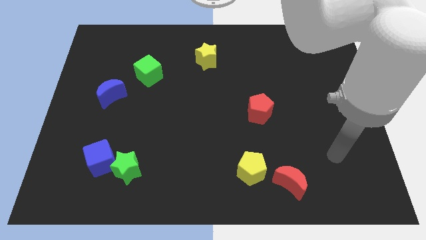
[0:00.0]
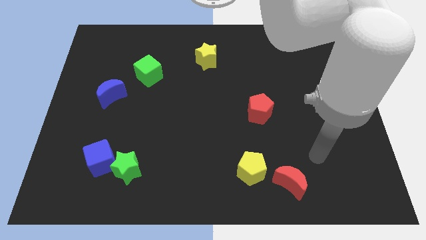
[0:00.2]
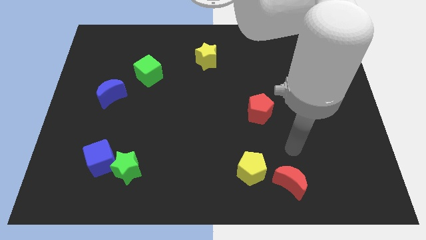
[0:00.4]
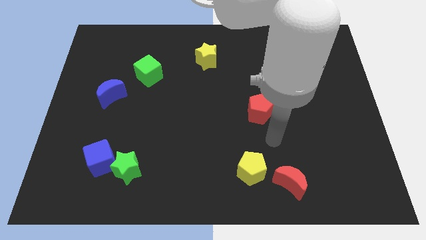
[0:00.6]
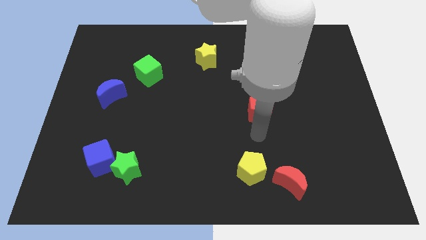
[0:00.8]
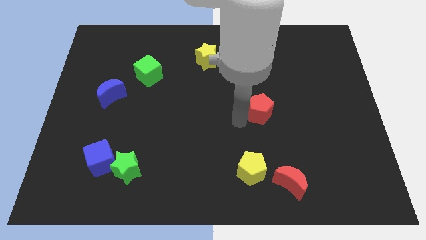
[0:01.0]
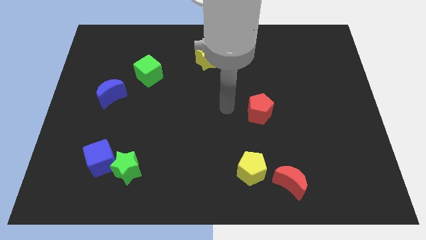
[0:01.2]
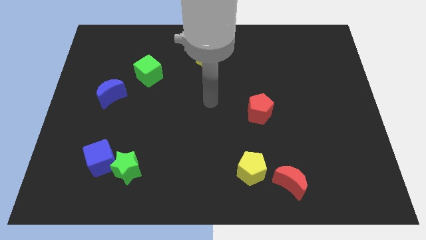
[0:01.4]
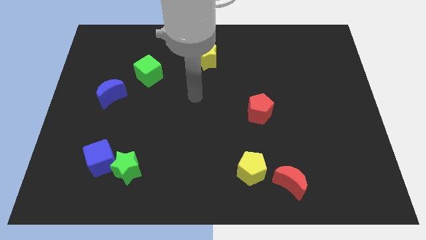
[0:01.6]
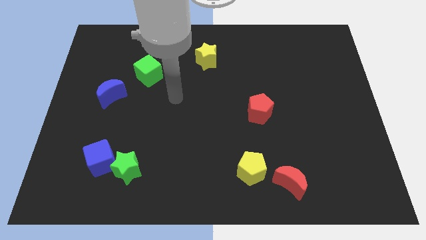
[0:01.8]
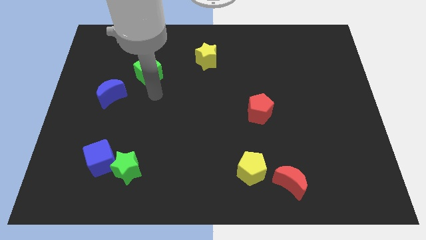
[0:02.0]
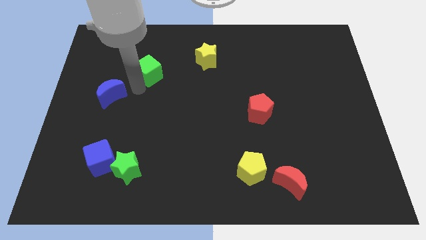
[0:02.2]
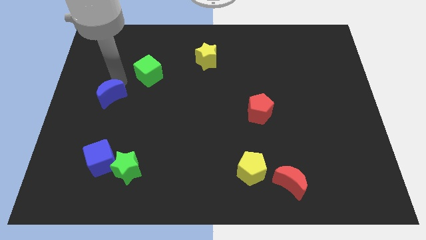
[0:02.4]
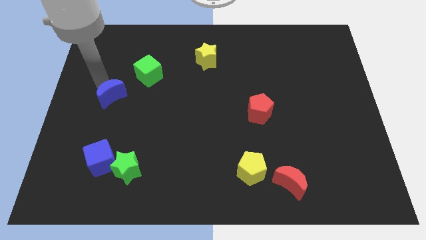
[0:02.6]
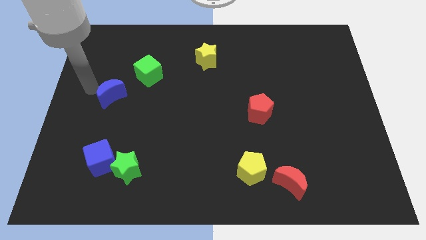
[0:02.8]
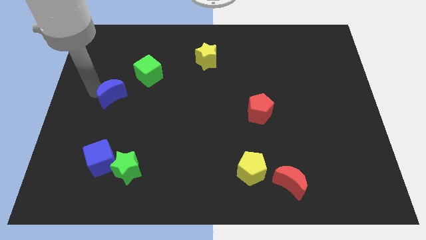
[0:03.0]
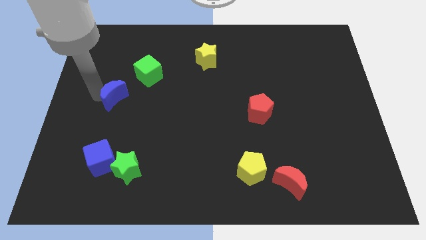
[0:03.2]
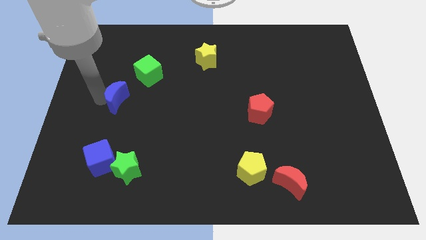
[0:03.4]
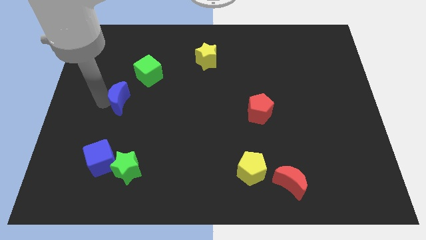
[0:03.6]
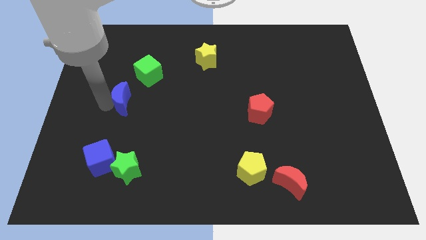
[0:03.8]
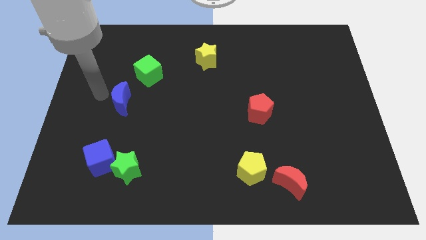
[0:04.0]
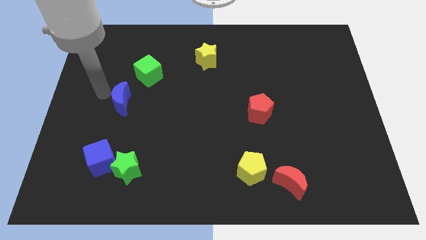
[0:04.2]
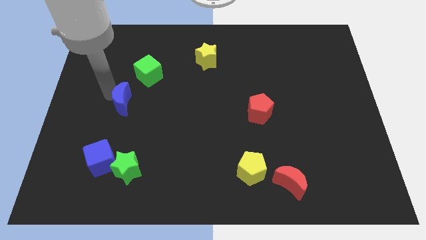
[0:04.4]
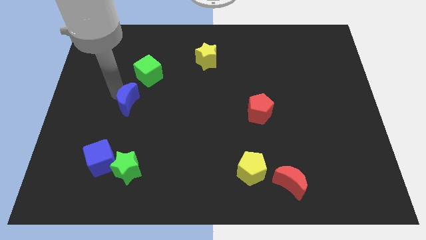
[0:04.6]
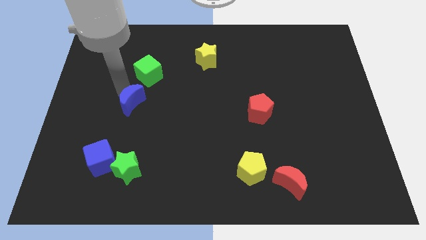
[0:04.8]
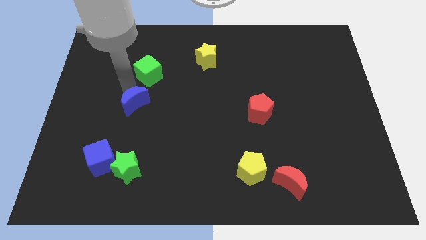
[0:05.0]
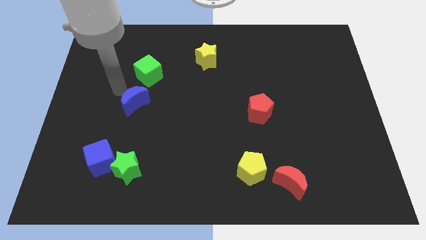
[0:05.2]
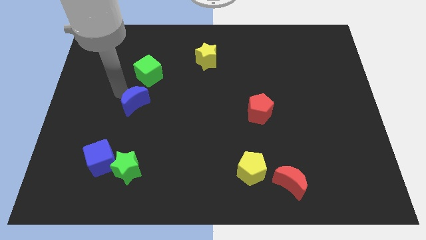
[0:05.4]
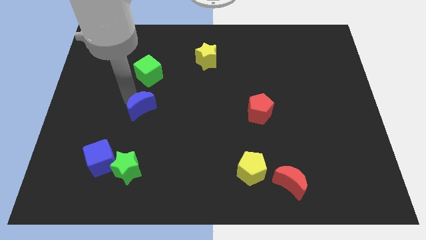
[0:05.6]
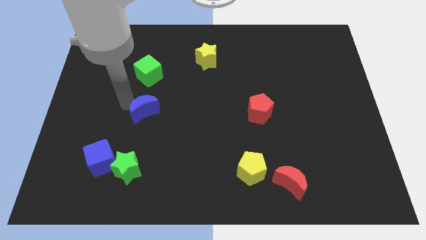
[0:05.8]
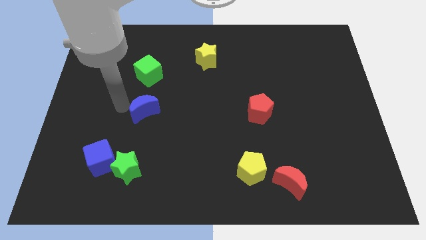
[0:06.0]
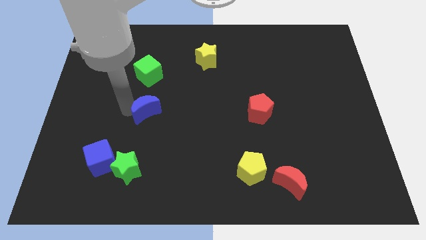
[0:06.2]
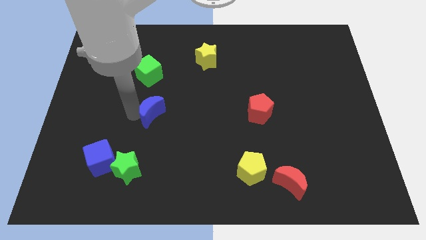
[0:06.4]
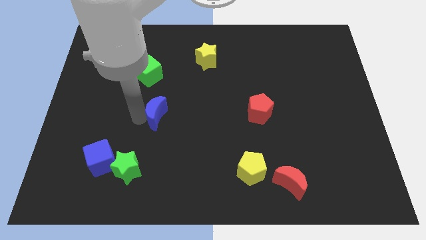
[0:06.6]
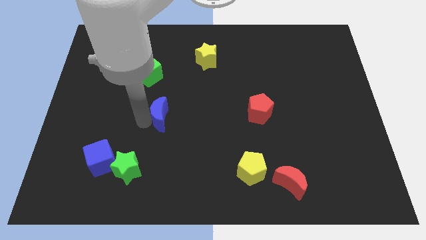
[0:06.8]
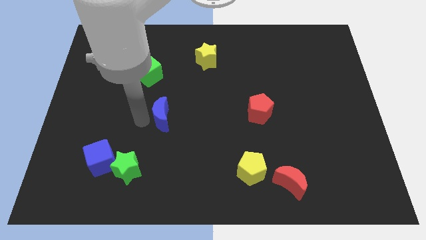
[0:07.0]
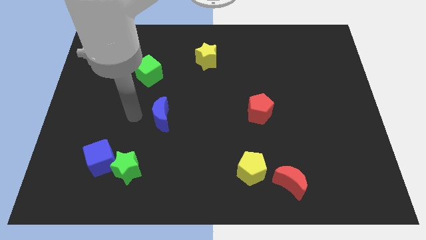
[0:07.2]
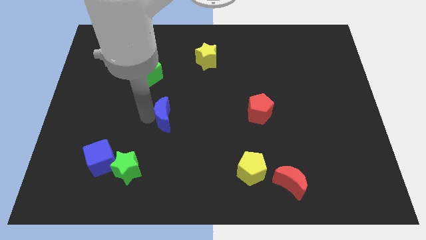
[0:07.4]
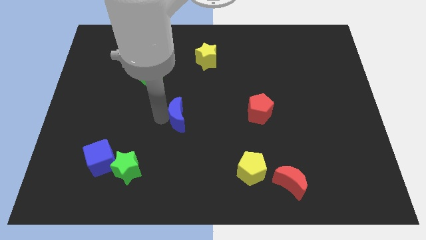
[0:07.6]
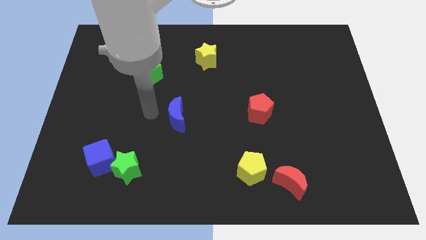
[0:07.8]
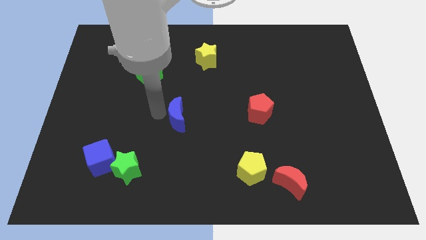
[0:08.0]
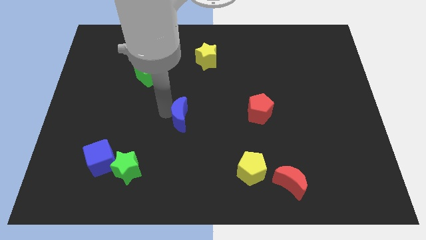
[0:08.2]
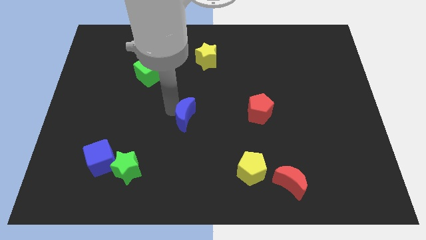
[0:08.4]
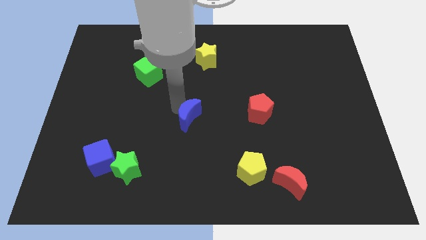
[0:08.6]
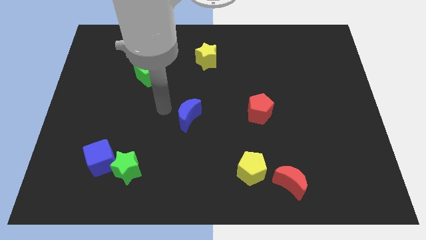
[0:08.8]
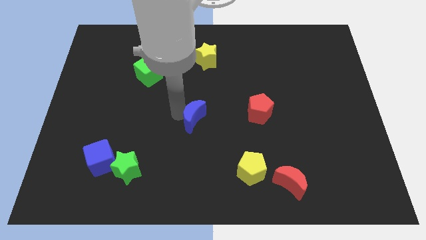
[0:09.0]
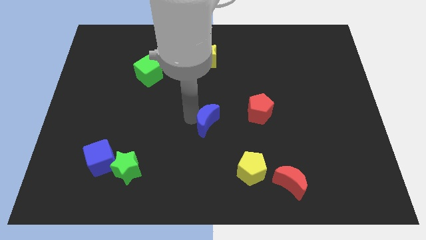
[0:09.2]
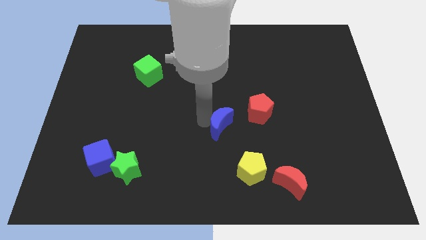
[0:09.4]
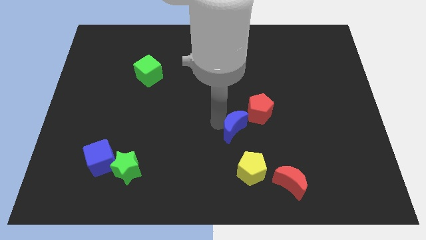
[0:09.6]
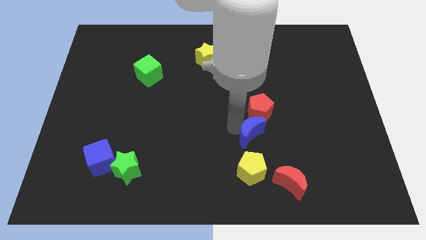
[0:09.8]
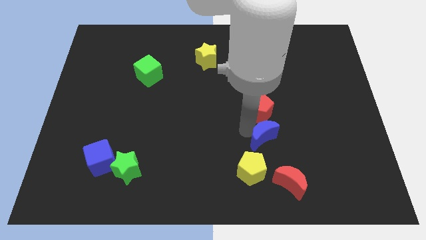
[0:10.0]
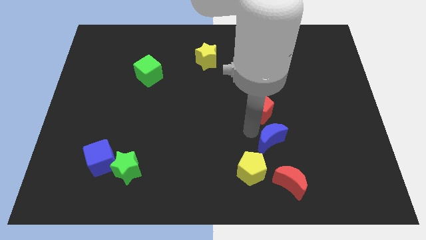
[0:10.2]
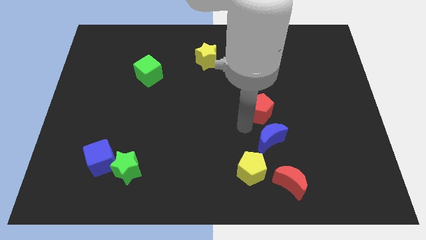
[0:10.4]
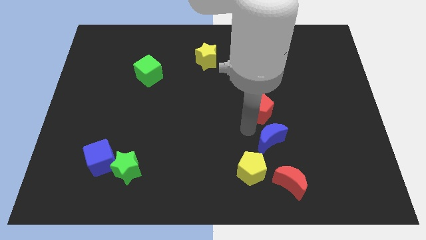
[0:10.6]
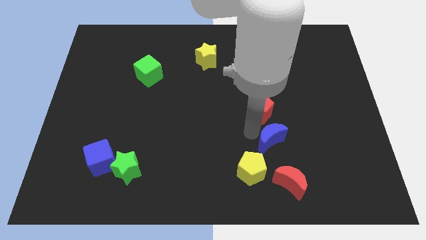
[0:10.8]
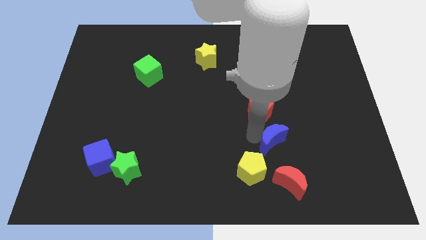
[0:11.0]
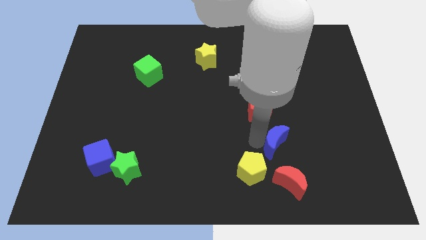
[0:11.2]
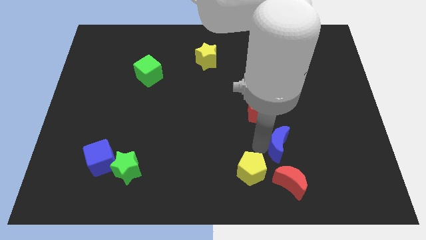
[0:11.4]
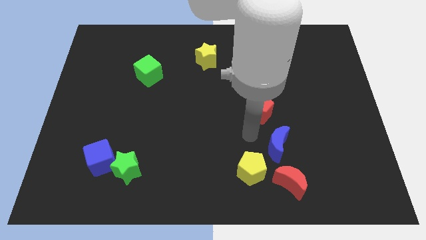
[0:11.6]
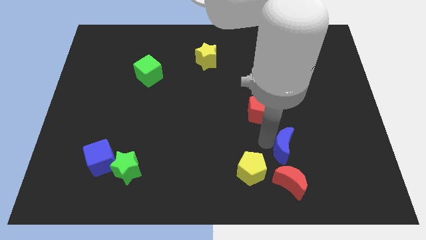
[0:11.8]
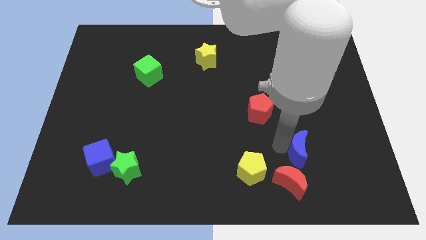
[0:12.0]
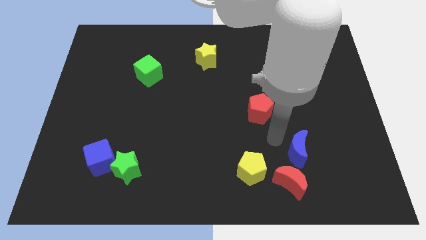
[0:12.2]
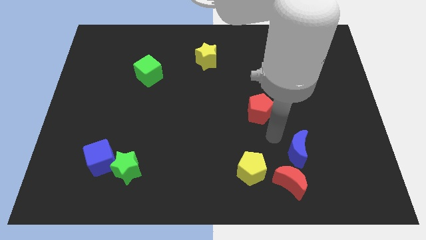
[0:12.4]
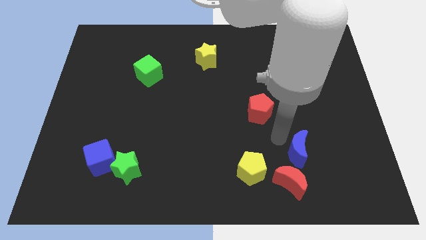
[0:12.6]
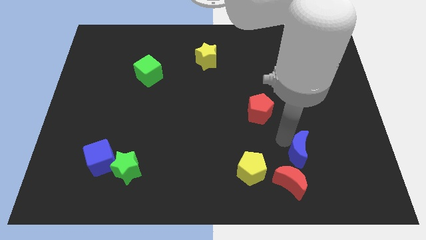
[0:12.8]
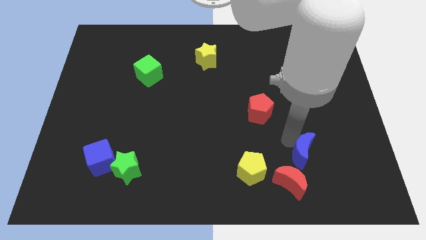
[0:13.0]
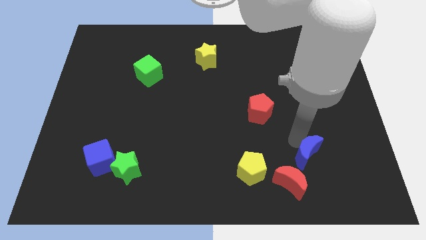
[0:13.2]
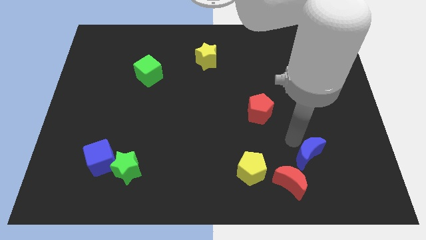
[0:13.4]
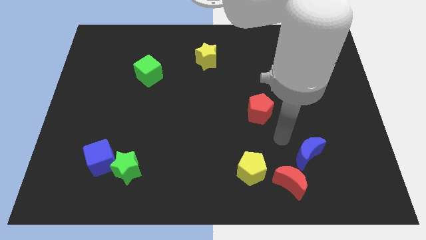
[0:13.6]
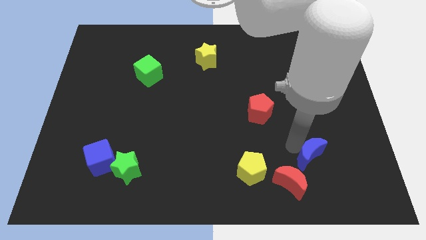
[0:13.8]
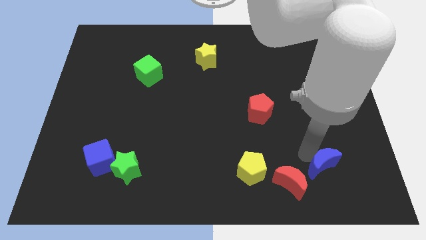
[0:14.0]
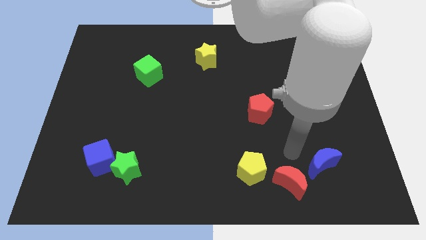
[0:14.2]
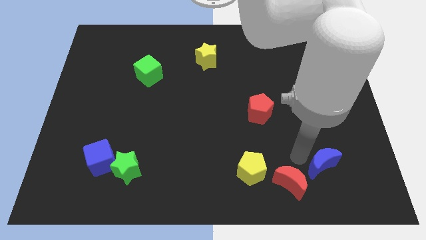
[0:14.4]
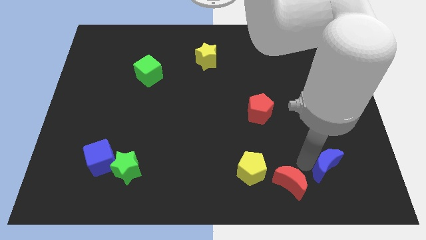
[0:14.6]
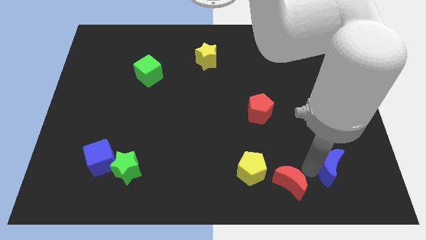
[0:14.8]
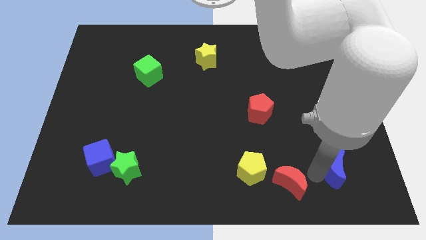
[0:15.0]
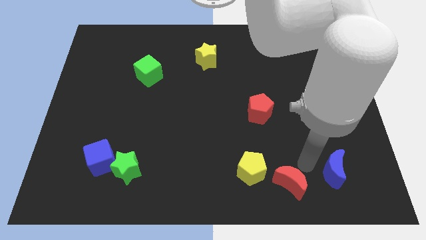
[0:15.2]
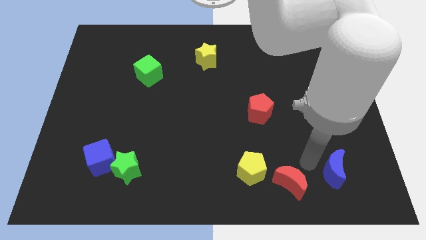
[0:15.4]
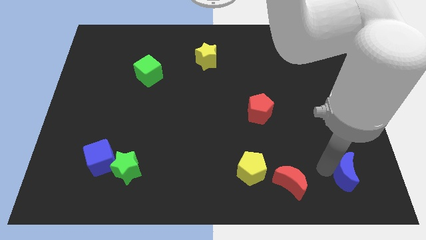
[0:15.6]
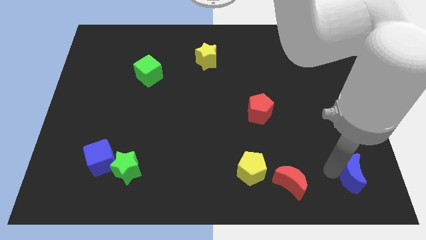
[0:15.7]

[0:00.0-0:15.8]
slide the blue moon to the bottom right corner
